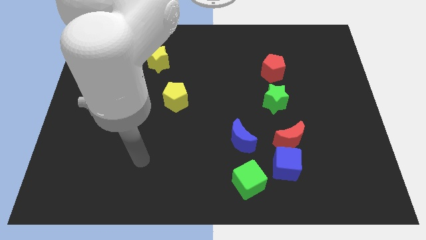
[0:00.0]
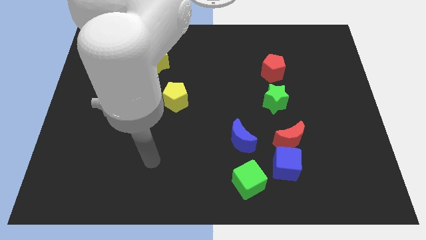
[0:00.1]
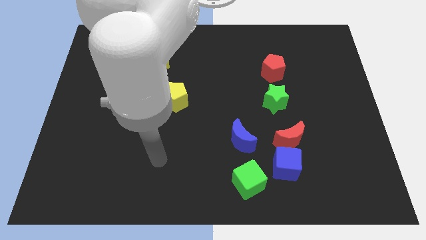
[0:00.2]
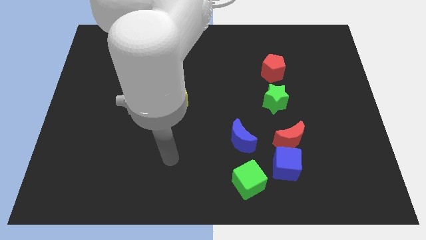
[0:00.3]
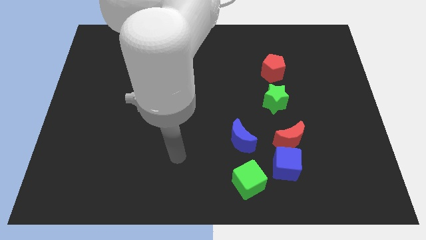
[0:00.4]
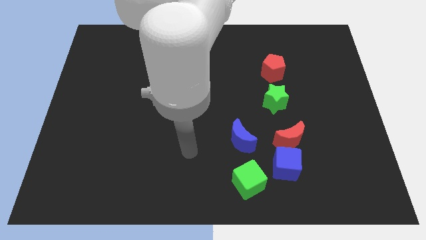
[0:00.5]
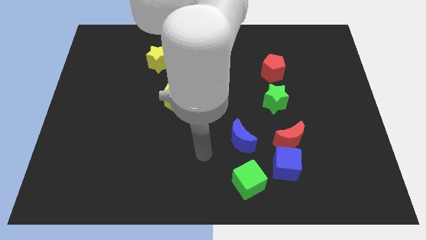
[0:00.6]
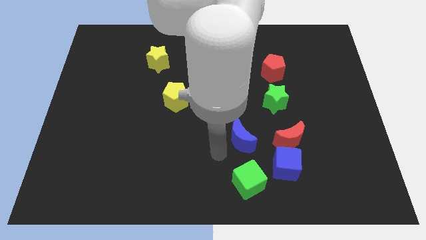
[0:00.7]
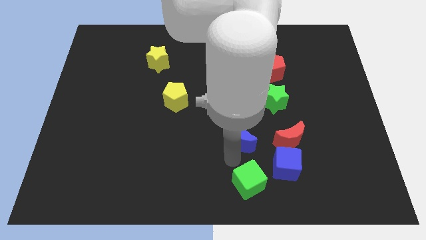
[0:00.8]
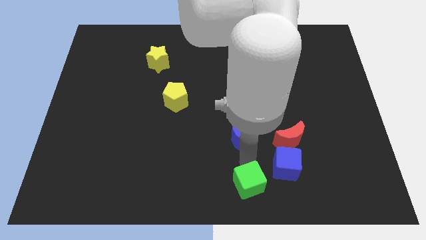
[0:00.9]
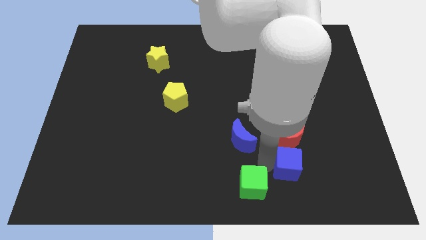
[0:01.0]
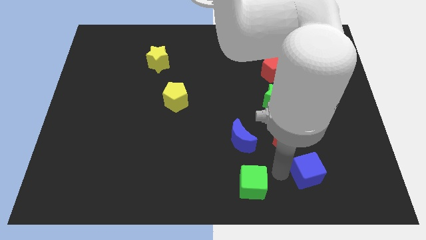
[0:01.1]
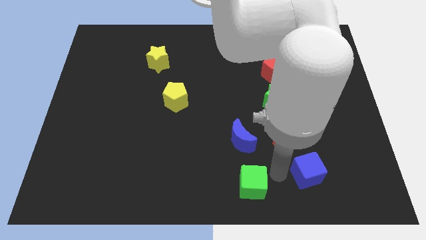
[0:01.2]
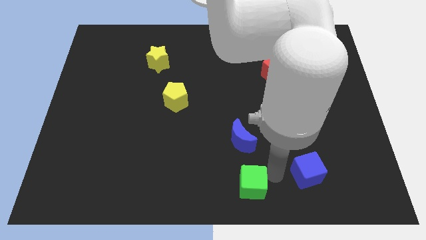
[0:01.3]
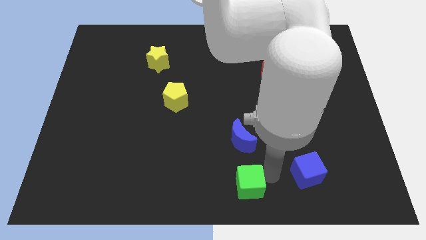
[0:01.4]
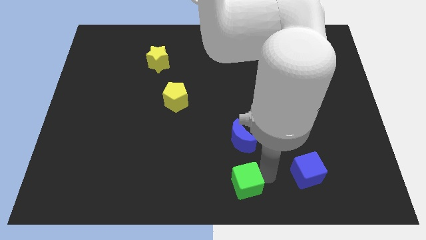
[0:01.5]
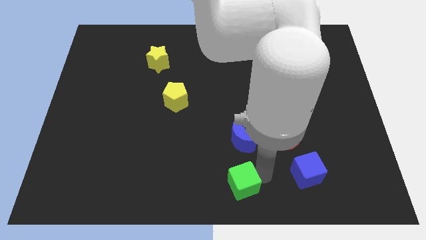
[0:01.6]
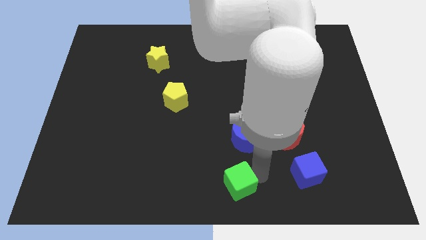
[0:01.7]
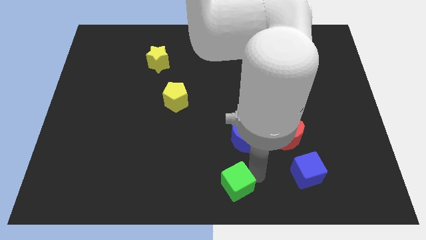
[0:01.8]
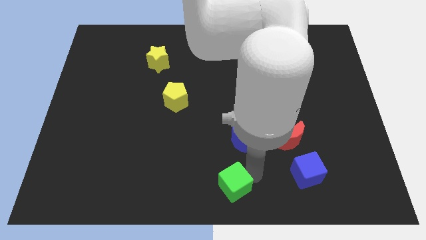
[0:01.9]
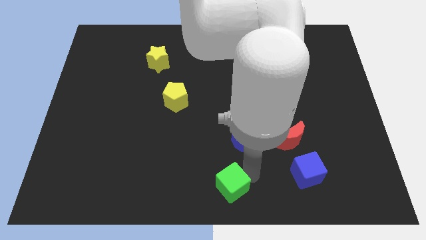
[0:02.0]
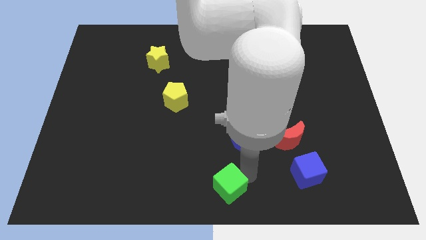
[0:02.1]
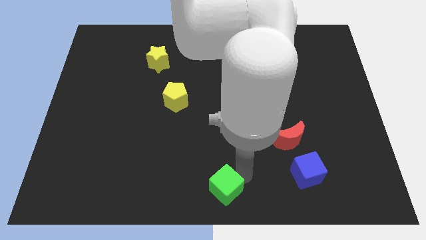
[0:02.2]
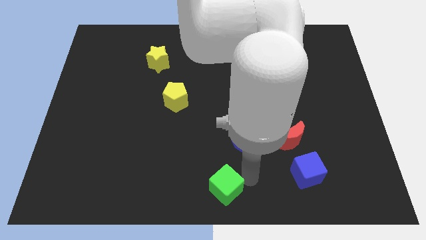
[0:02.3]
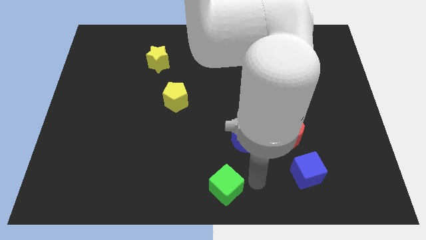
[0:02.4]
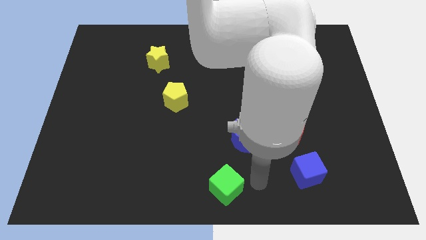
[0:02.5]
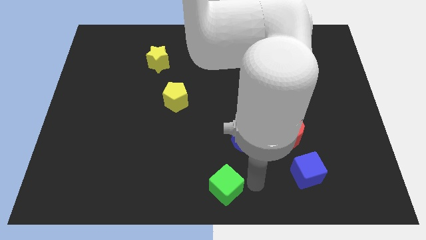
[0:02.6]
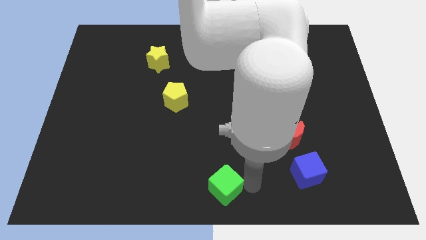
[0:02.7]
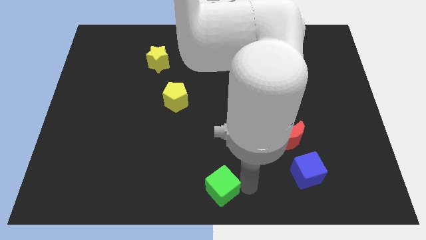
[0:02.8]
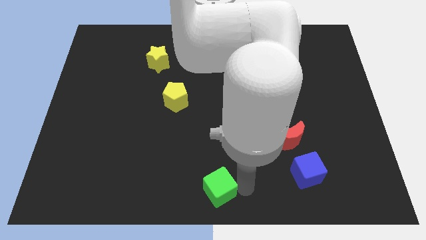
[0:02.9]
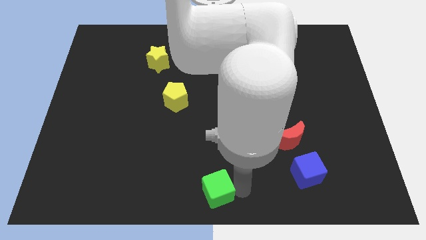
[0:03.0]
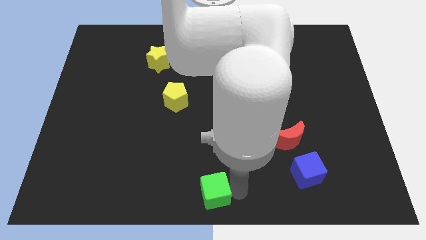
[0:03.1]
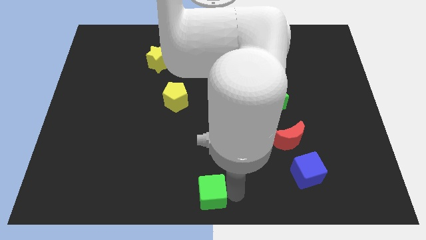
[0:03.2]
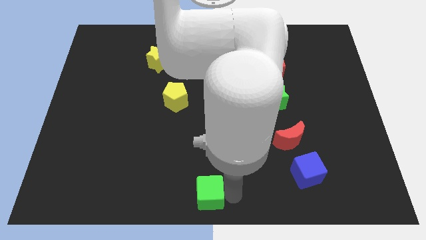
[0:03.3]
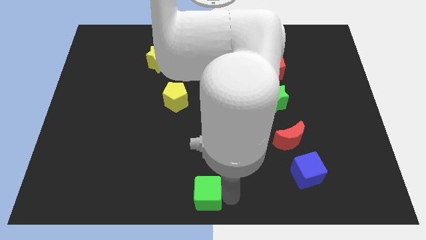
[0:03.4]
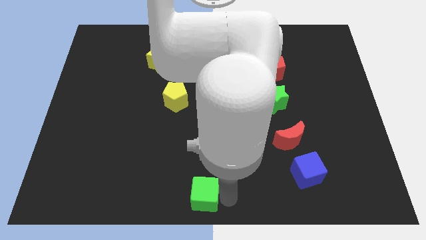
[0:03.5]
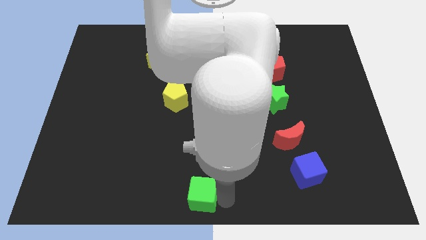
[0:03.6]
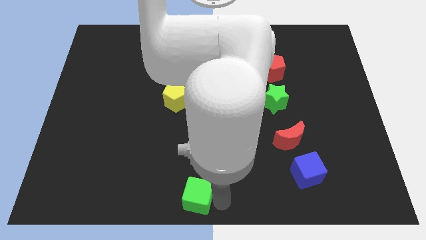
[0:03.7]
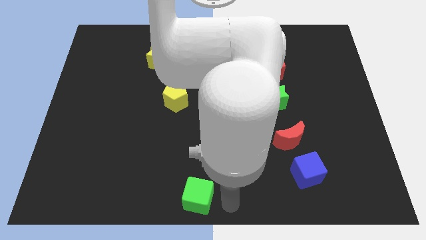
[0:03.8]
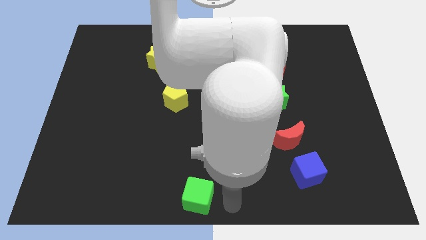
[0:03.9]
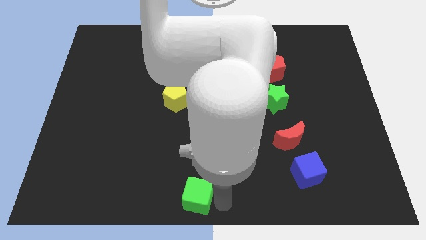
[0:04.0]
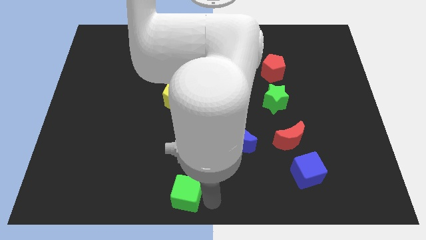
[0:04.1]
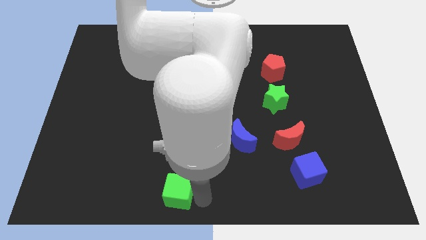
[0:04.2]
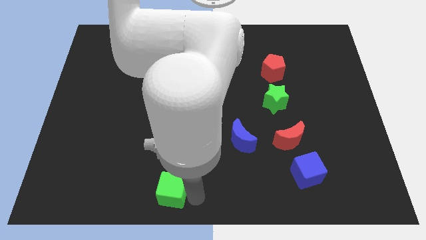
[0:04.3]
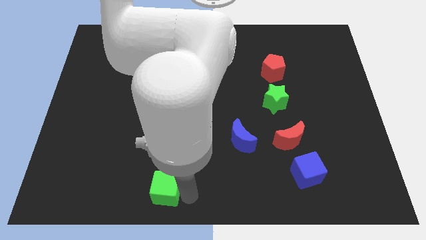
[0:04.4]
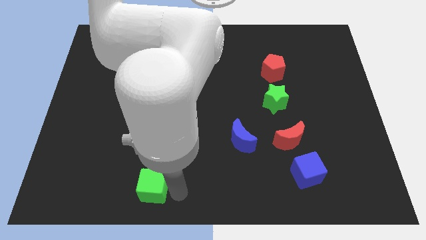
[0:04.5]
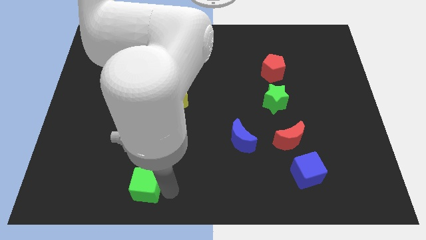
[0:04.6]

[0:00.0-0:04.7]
push the green cube to the left

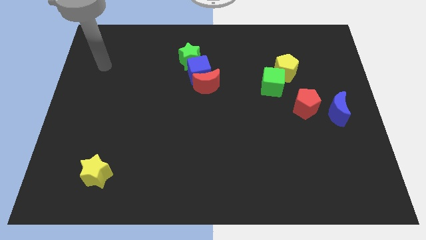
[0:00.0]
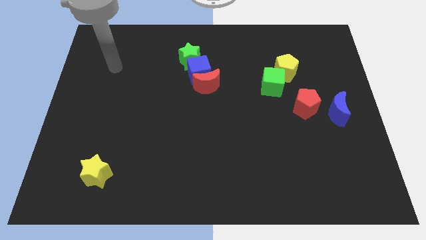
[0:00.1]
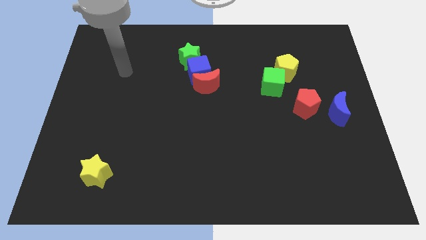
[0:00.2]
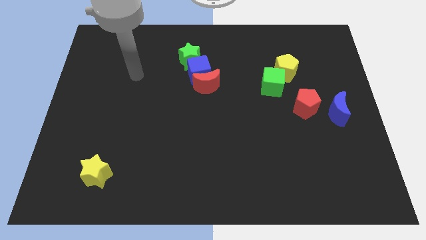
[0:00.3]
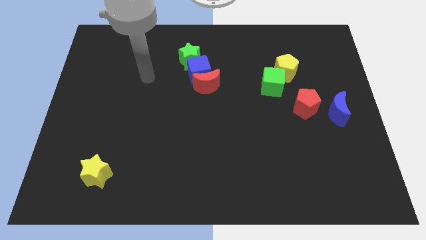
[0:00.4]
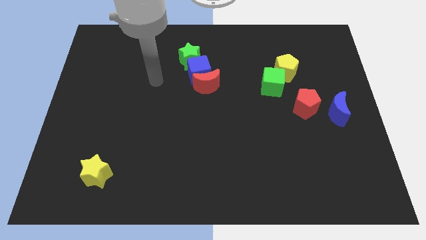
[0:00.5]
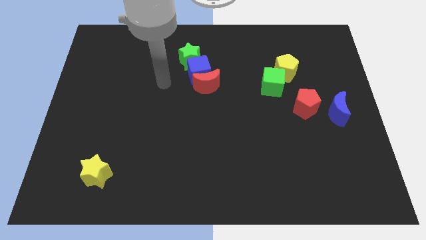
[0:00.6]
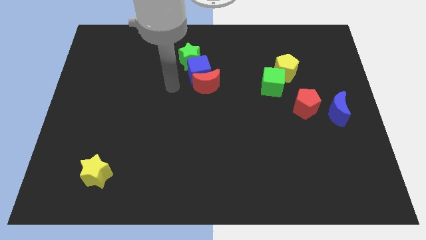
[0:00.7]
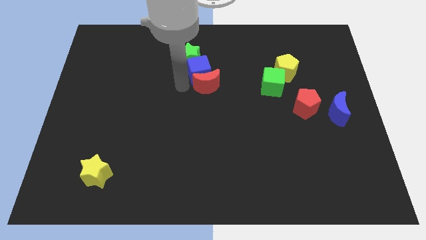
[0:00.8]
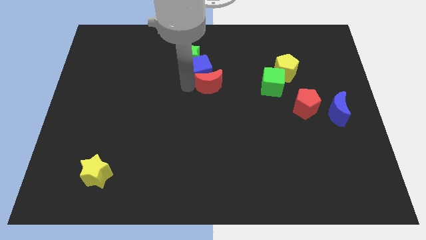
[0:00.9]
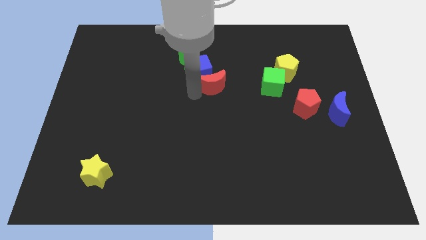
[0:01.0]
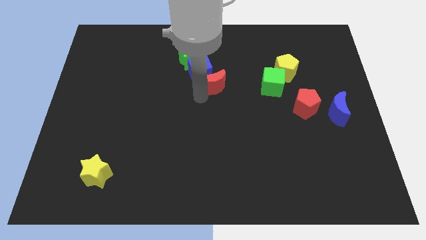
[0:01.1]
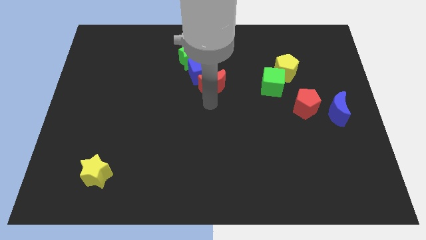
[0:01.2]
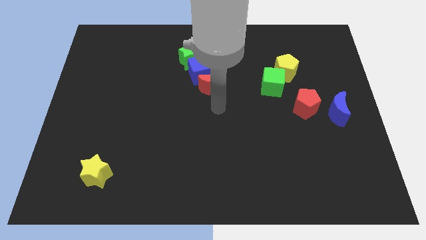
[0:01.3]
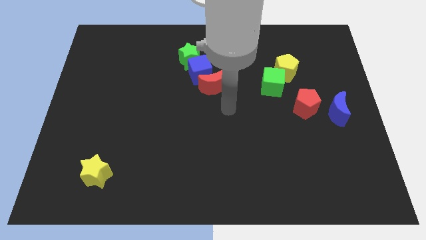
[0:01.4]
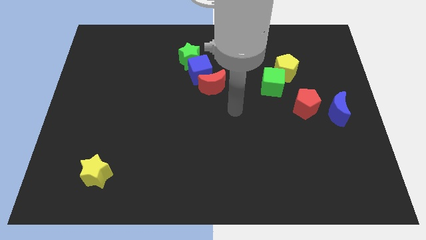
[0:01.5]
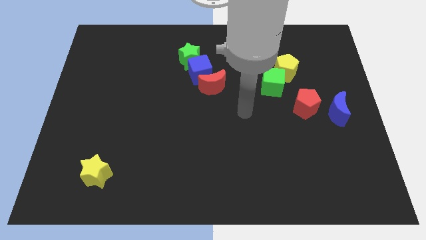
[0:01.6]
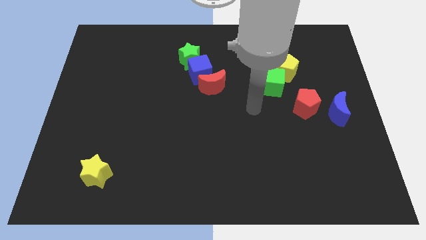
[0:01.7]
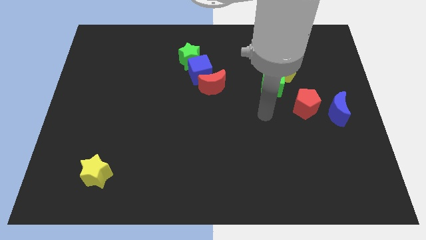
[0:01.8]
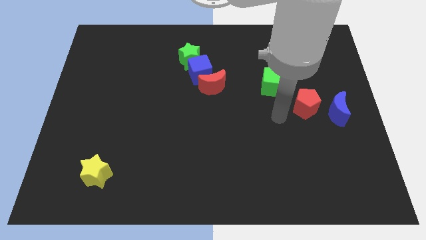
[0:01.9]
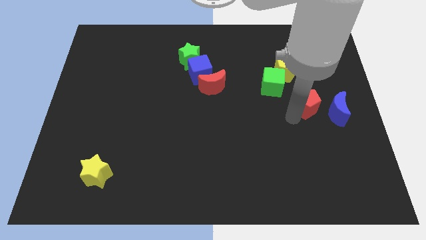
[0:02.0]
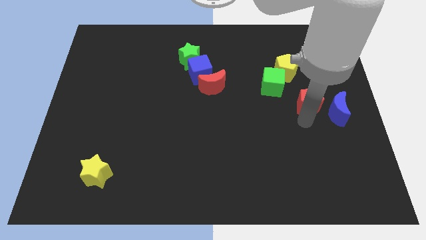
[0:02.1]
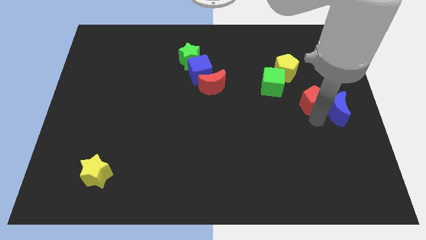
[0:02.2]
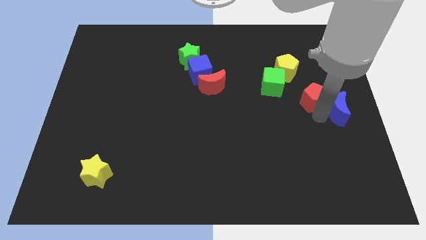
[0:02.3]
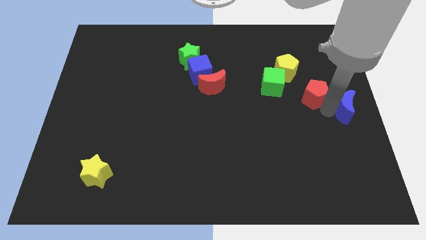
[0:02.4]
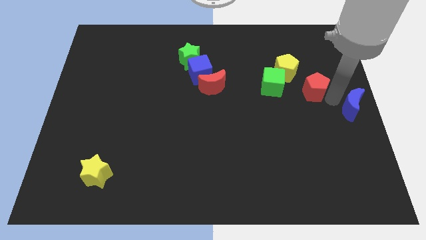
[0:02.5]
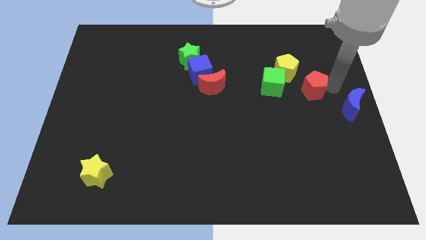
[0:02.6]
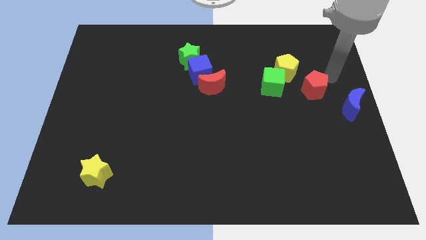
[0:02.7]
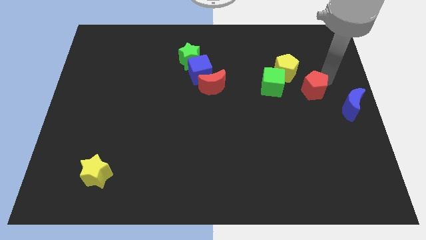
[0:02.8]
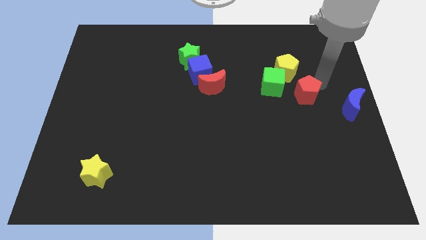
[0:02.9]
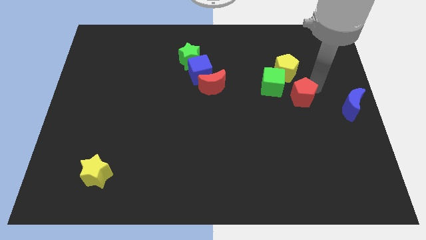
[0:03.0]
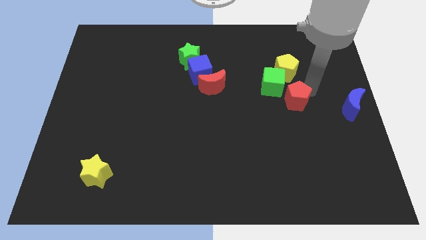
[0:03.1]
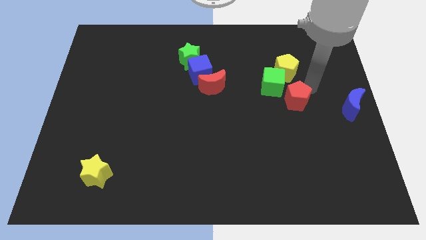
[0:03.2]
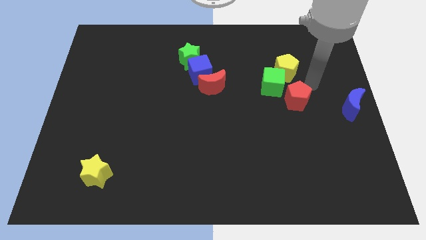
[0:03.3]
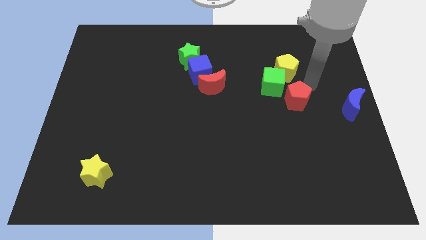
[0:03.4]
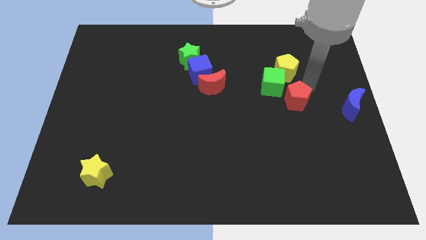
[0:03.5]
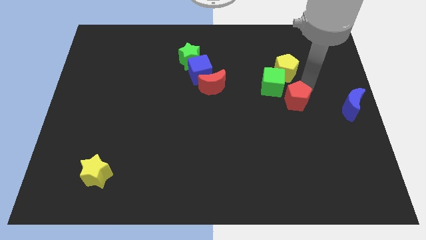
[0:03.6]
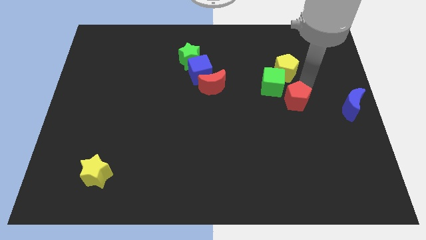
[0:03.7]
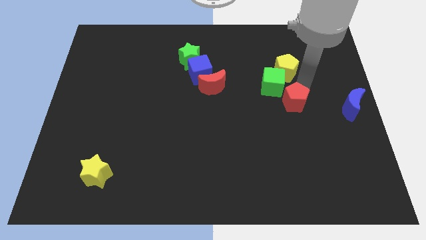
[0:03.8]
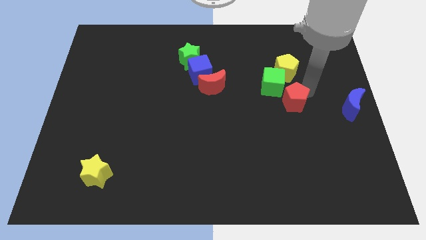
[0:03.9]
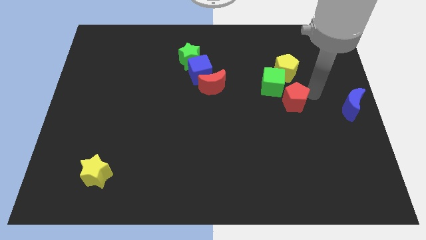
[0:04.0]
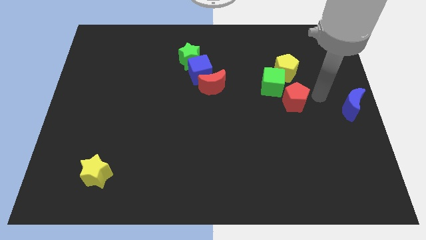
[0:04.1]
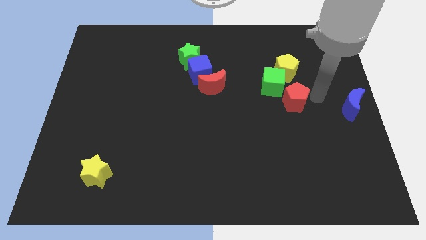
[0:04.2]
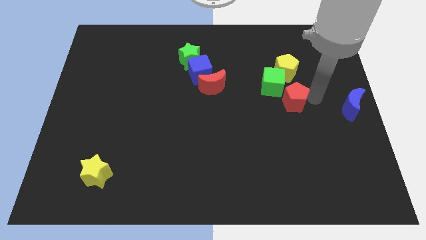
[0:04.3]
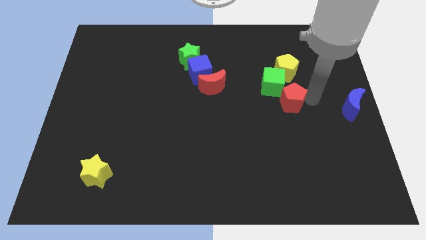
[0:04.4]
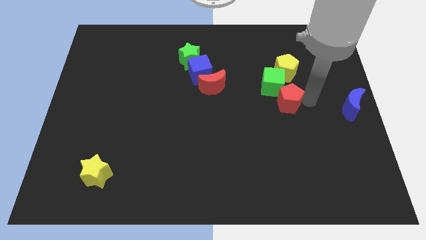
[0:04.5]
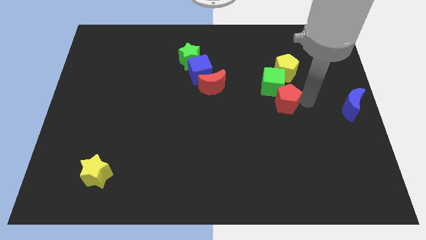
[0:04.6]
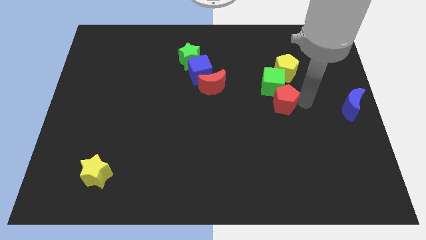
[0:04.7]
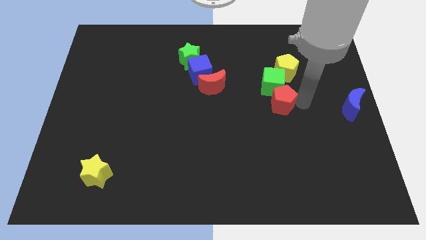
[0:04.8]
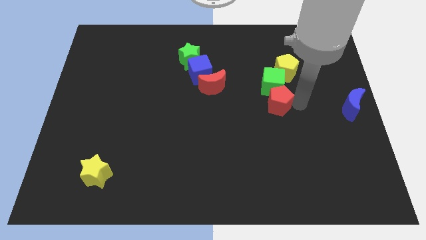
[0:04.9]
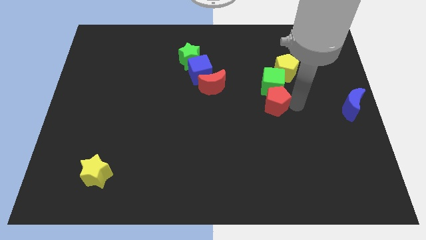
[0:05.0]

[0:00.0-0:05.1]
slightly move the red pentagon left
